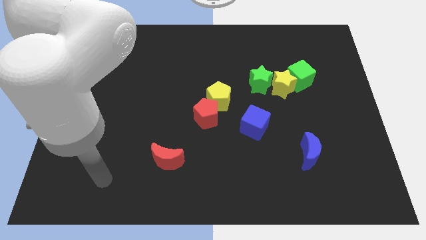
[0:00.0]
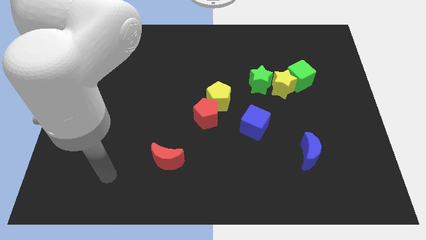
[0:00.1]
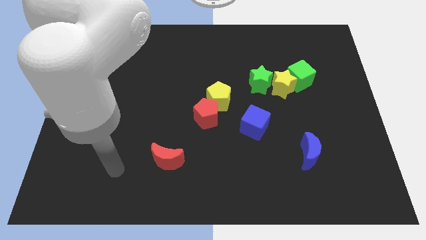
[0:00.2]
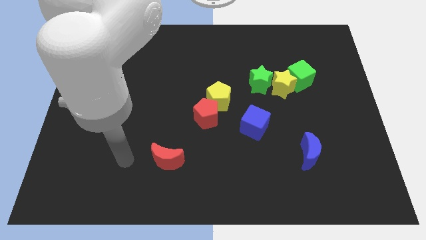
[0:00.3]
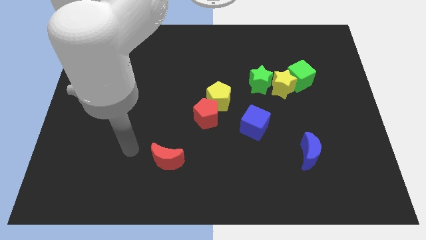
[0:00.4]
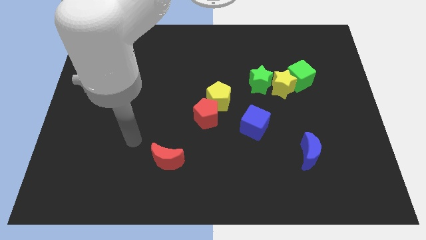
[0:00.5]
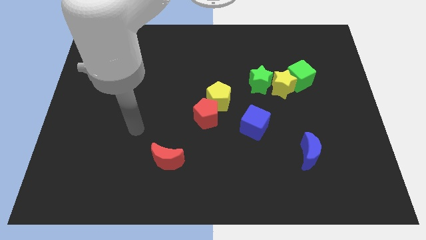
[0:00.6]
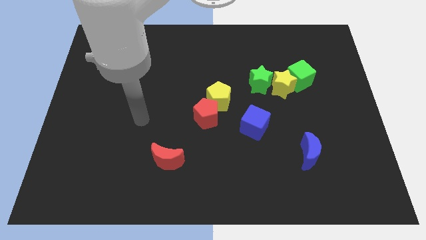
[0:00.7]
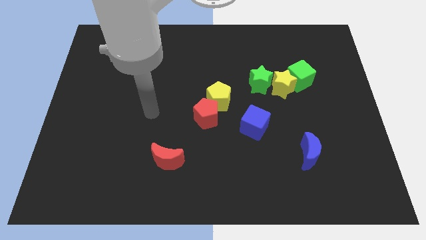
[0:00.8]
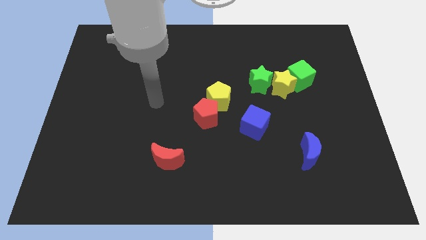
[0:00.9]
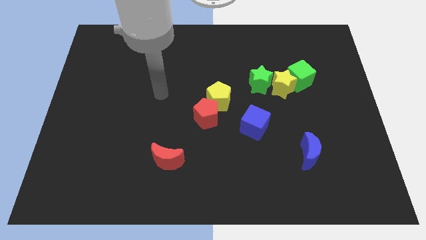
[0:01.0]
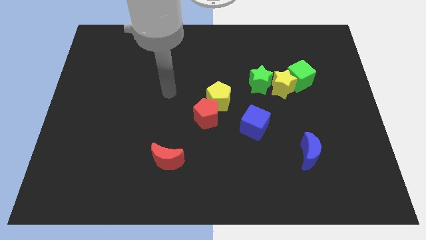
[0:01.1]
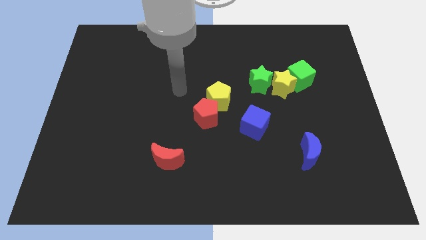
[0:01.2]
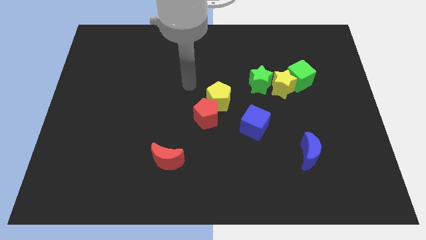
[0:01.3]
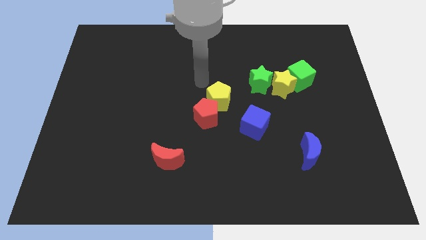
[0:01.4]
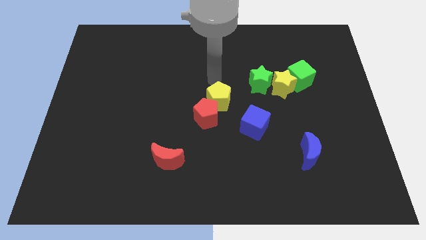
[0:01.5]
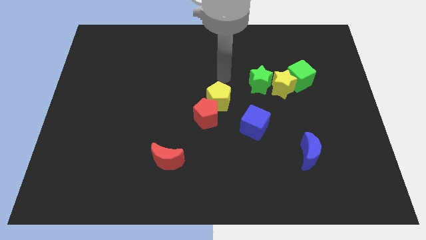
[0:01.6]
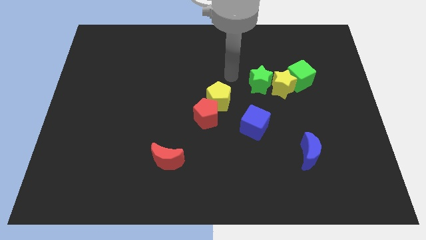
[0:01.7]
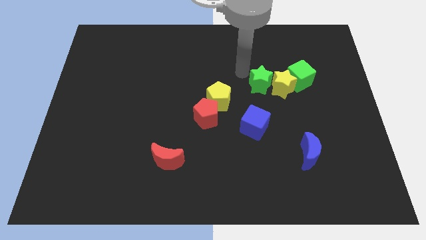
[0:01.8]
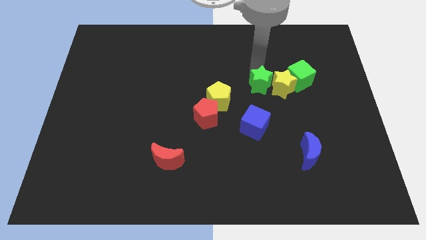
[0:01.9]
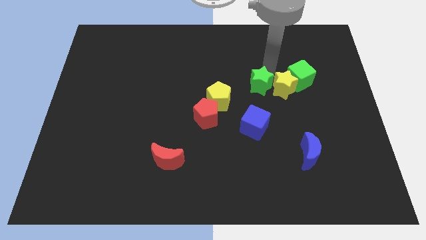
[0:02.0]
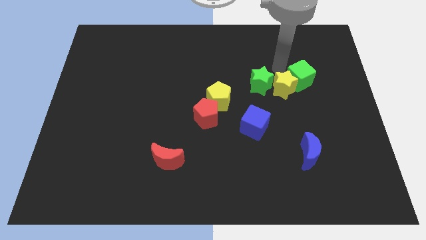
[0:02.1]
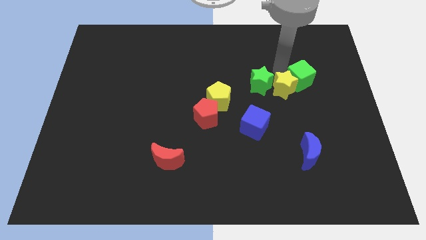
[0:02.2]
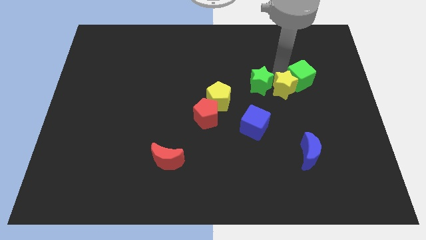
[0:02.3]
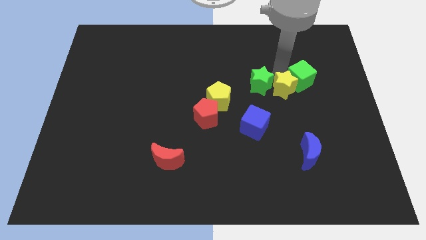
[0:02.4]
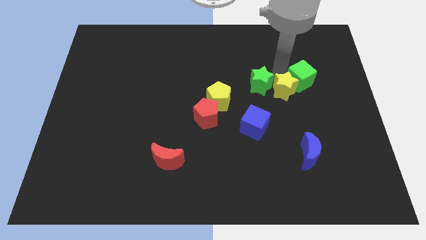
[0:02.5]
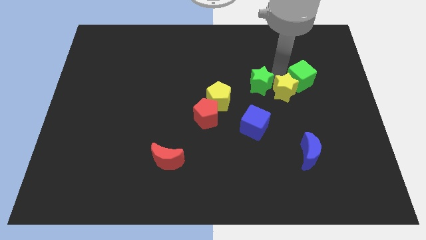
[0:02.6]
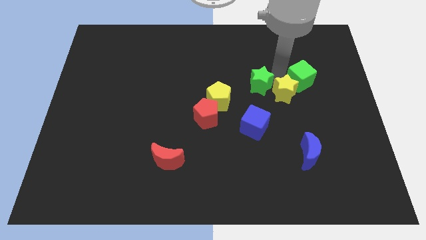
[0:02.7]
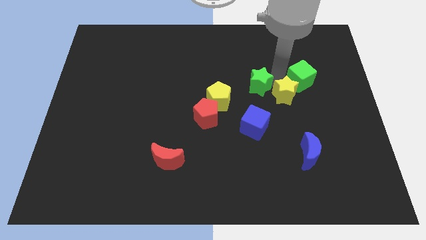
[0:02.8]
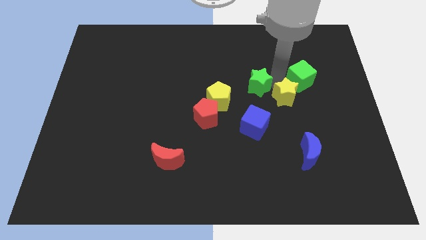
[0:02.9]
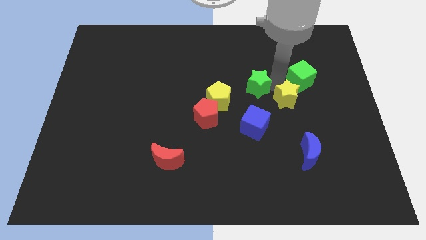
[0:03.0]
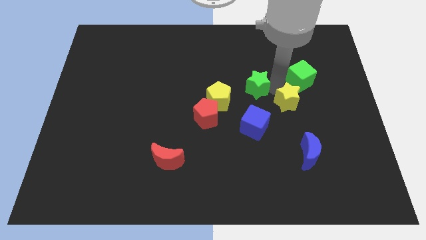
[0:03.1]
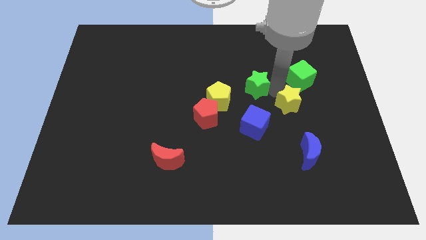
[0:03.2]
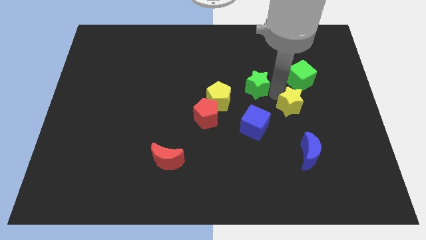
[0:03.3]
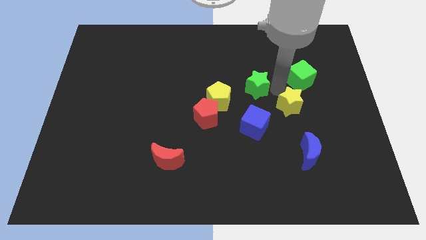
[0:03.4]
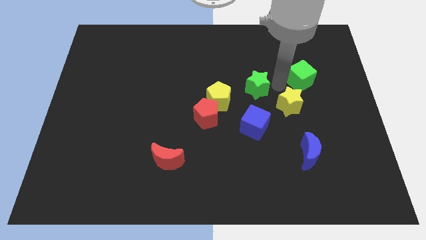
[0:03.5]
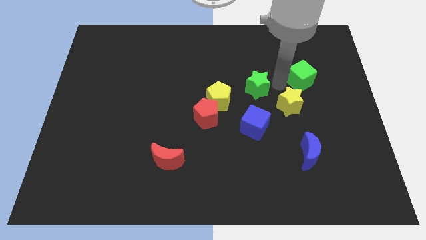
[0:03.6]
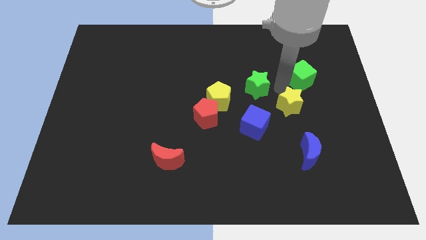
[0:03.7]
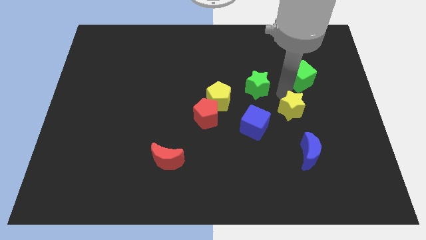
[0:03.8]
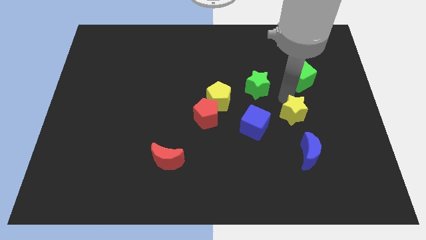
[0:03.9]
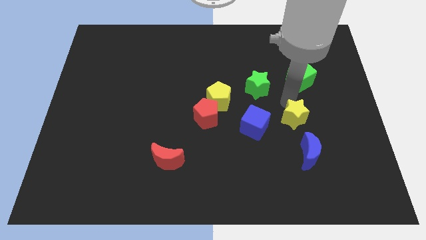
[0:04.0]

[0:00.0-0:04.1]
move the yellow star away from the green cube and green star

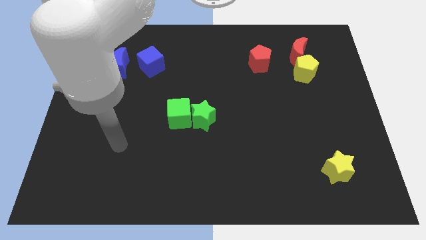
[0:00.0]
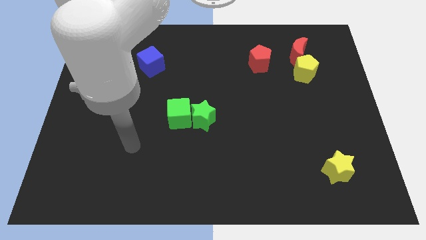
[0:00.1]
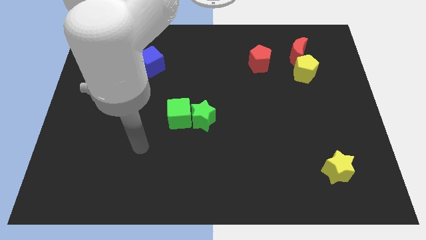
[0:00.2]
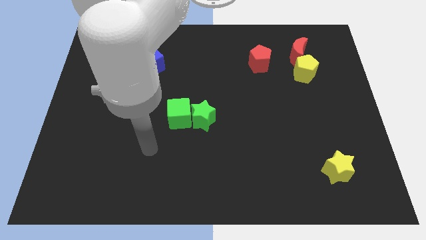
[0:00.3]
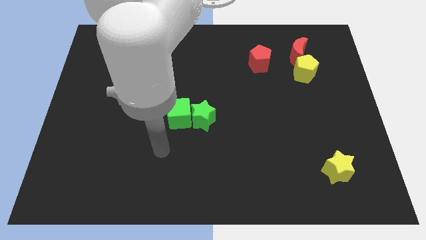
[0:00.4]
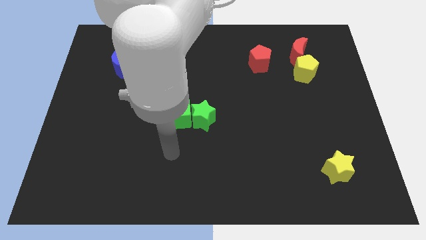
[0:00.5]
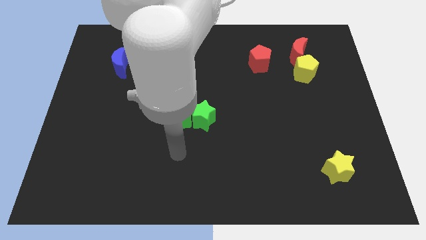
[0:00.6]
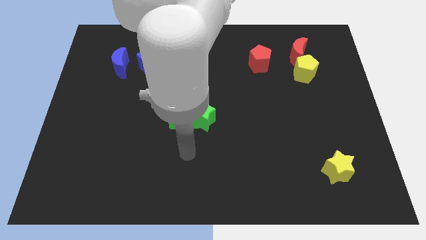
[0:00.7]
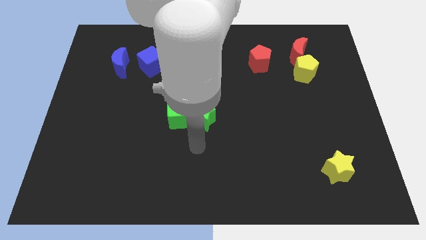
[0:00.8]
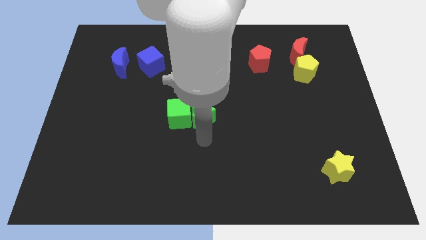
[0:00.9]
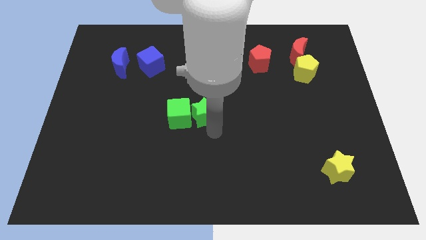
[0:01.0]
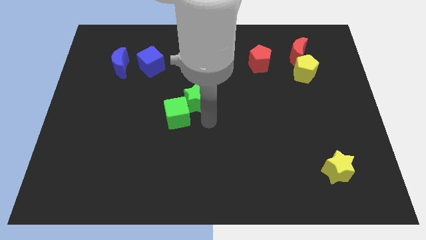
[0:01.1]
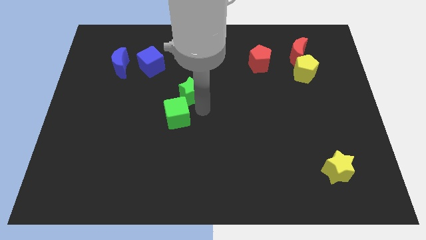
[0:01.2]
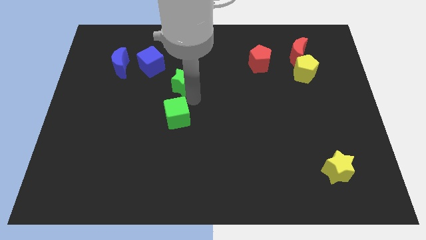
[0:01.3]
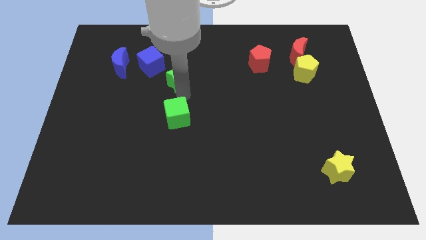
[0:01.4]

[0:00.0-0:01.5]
separate the green cube from the green star

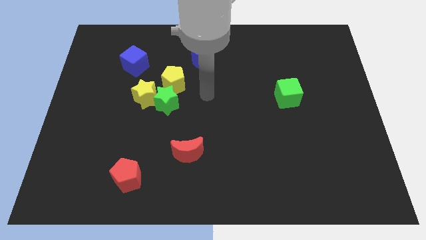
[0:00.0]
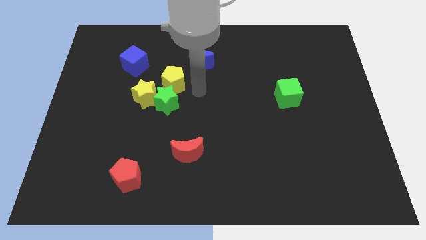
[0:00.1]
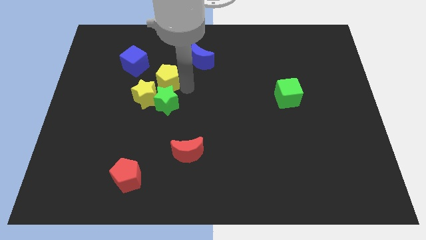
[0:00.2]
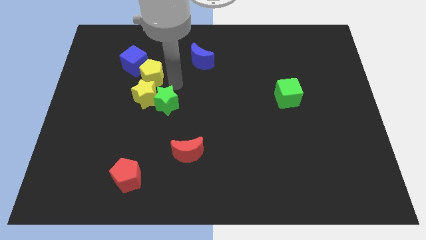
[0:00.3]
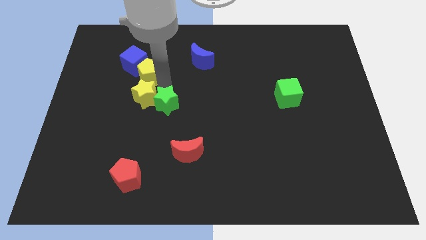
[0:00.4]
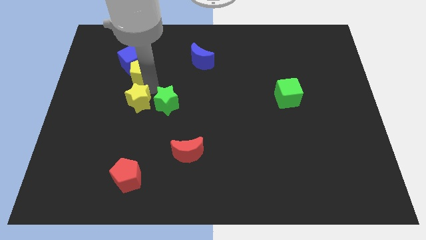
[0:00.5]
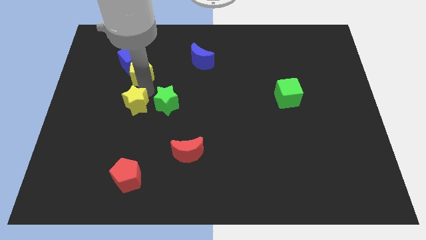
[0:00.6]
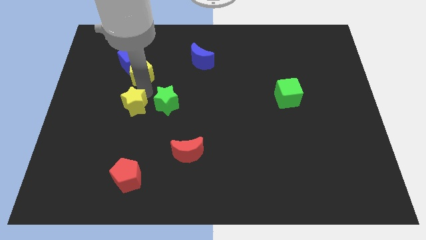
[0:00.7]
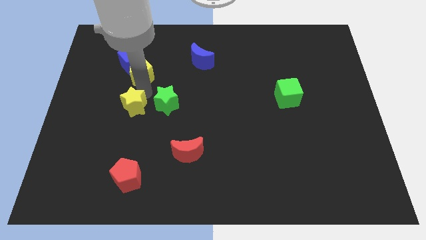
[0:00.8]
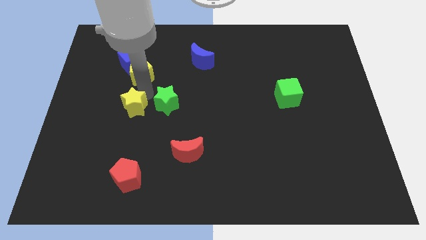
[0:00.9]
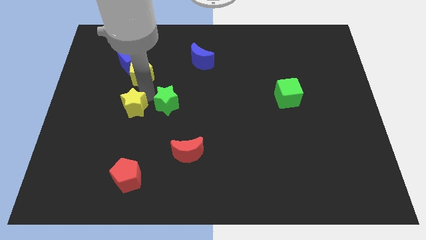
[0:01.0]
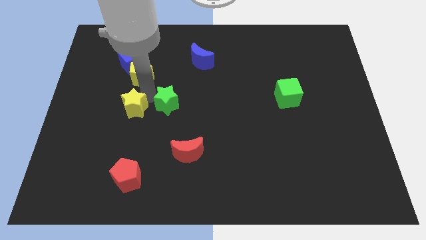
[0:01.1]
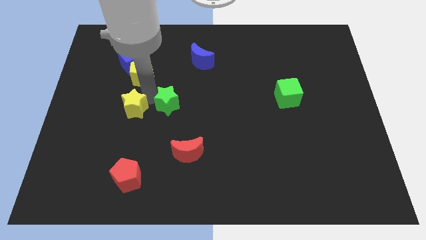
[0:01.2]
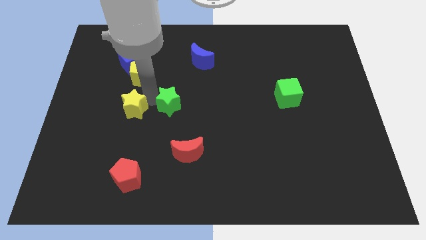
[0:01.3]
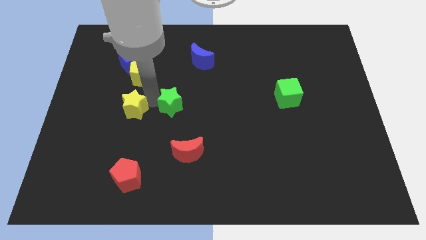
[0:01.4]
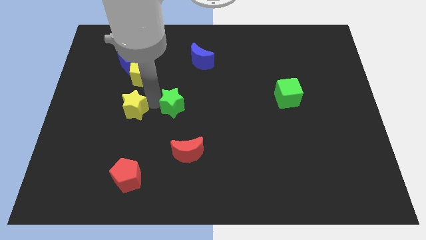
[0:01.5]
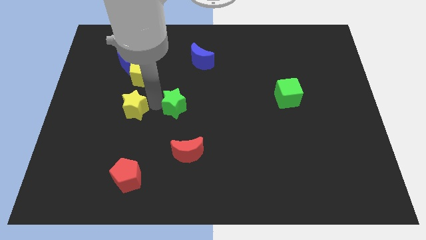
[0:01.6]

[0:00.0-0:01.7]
separate the green star from the yellow star and yellow pentagon

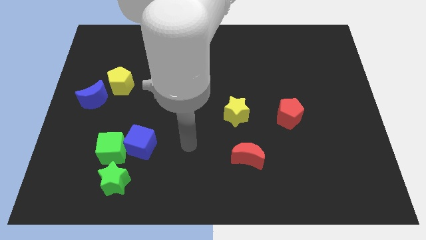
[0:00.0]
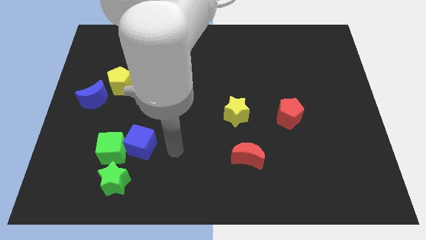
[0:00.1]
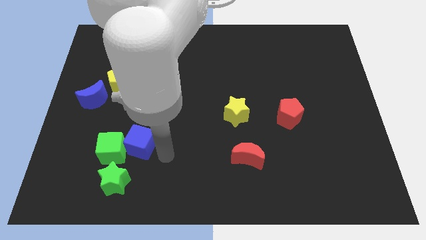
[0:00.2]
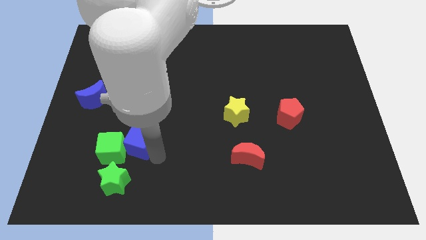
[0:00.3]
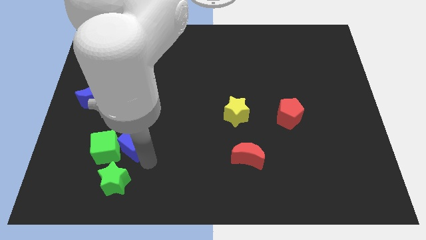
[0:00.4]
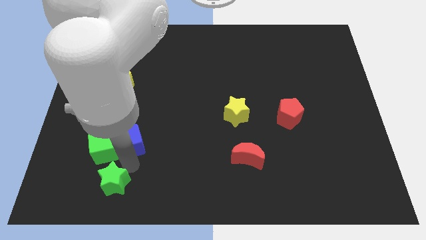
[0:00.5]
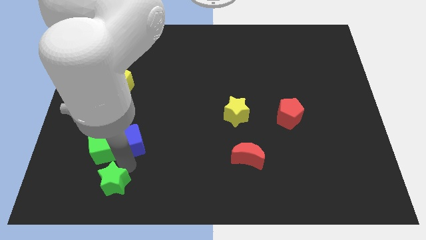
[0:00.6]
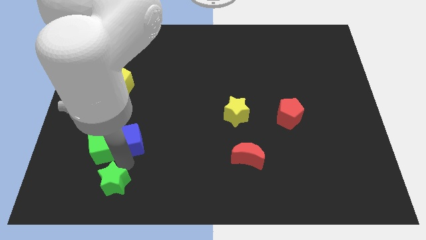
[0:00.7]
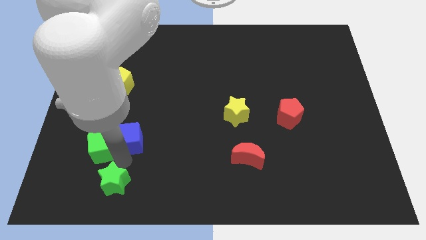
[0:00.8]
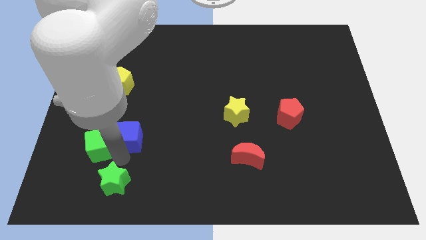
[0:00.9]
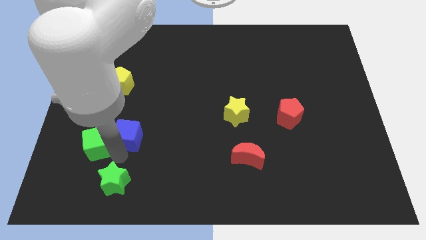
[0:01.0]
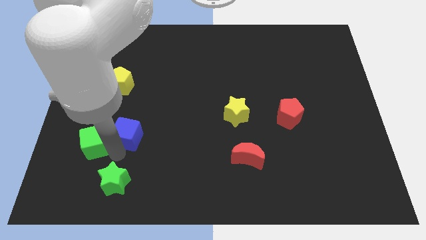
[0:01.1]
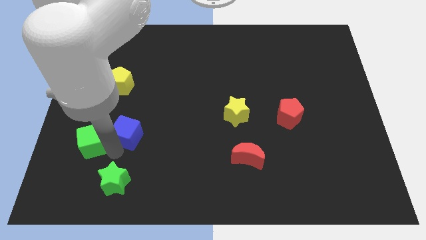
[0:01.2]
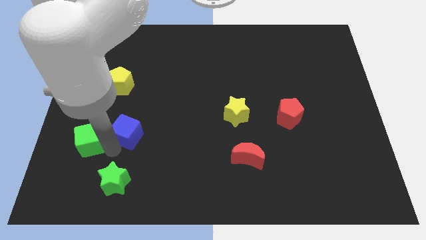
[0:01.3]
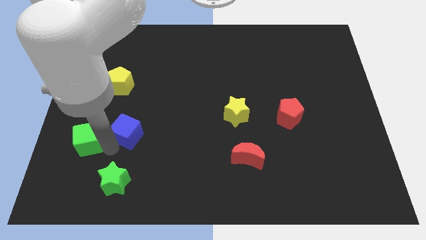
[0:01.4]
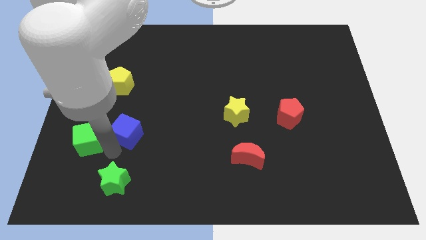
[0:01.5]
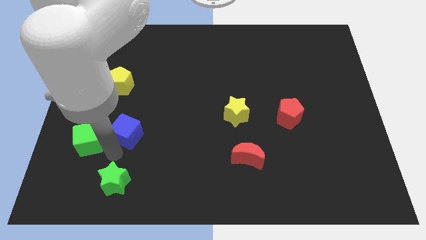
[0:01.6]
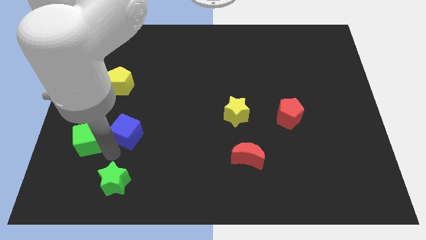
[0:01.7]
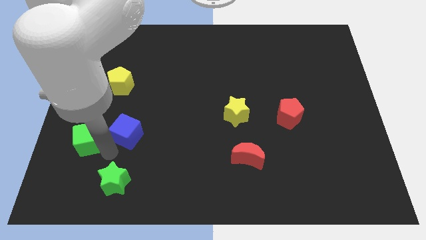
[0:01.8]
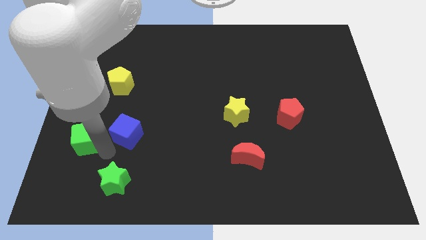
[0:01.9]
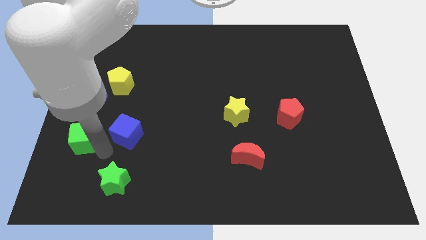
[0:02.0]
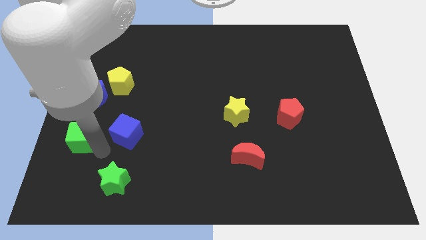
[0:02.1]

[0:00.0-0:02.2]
pull the green cube apart from the blue cube and green star
